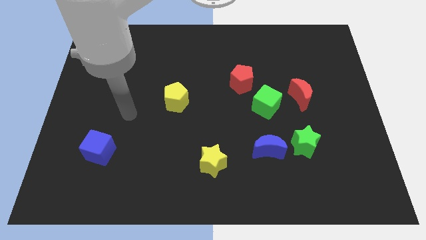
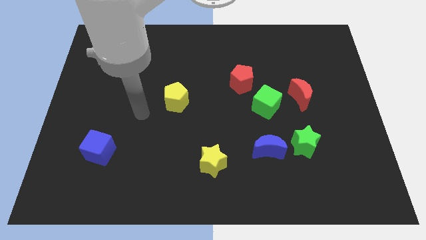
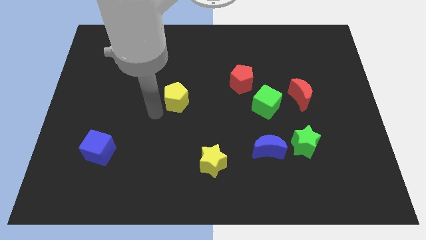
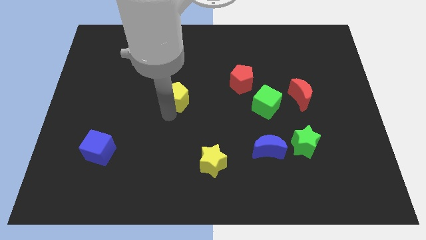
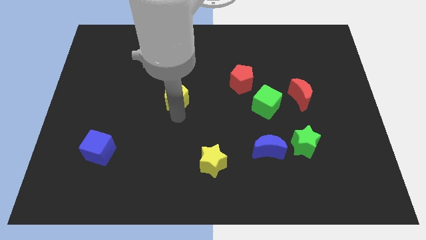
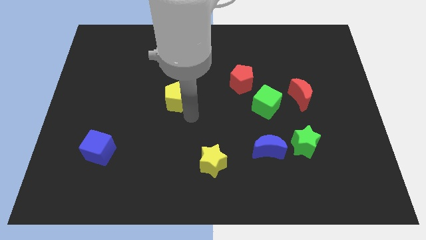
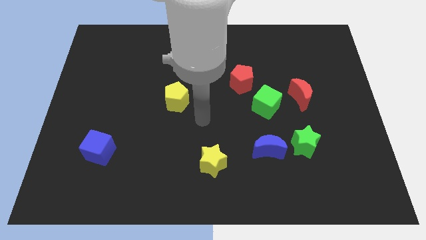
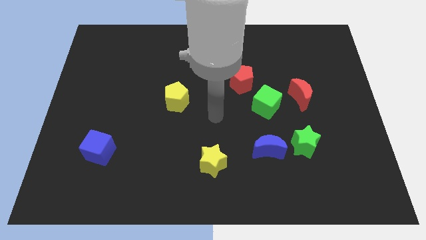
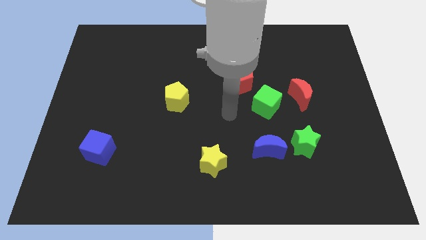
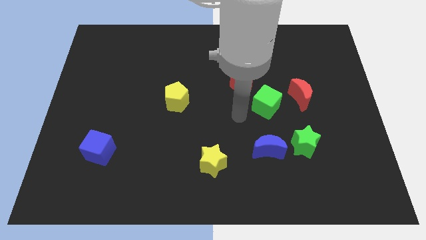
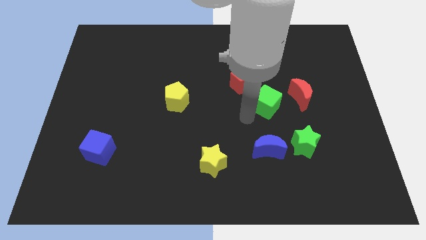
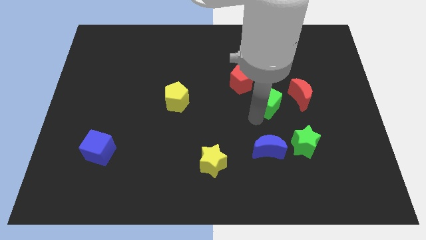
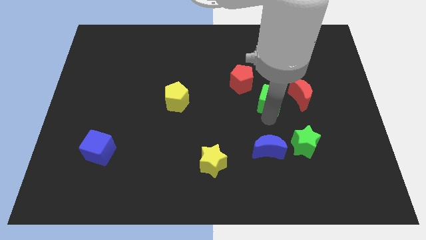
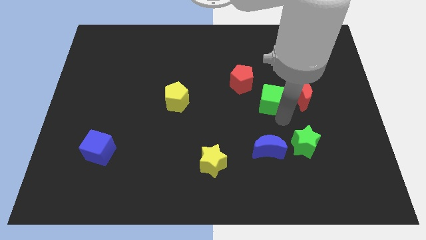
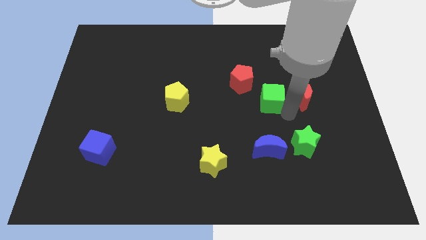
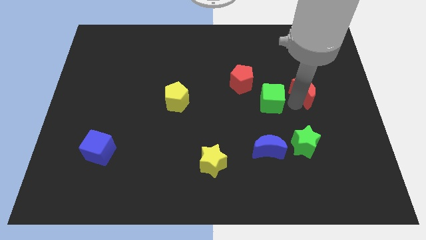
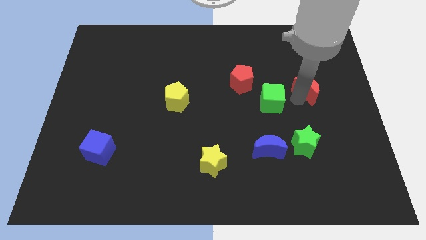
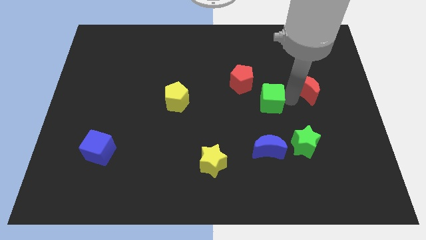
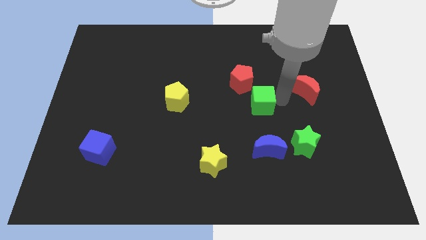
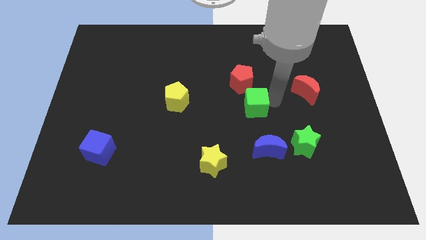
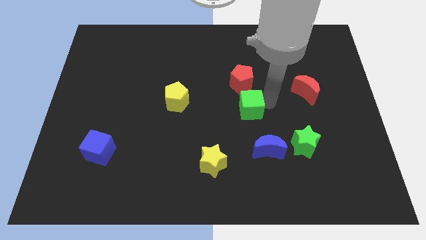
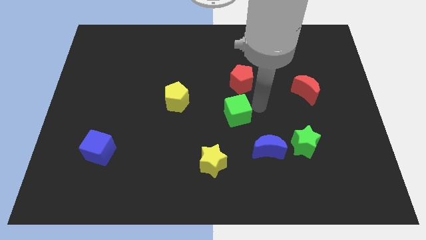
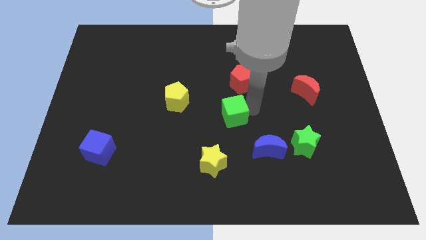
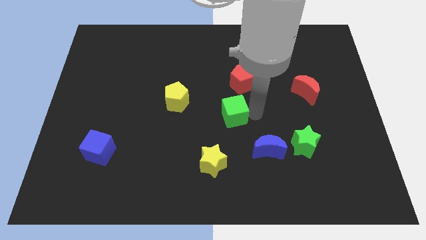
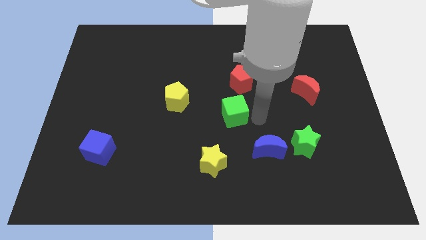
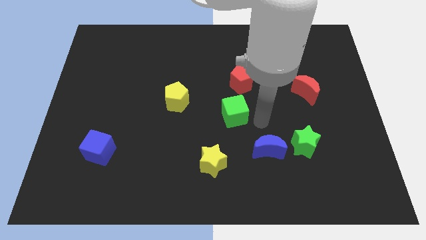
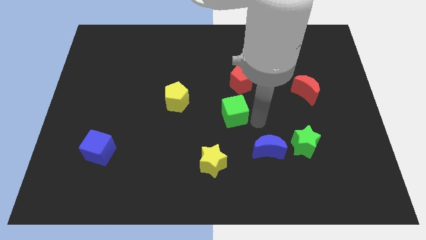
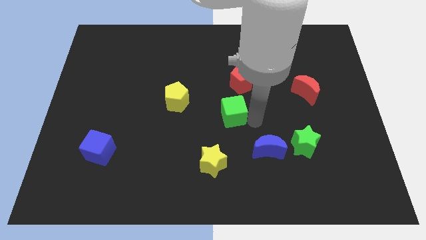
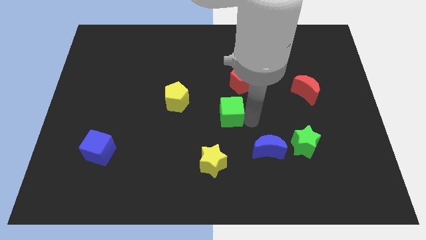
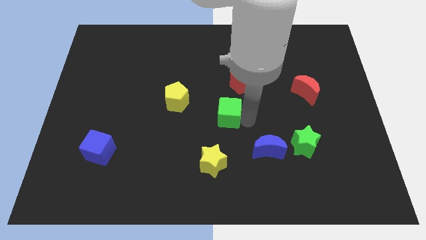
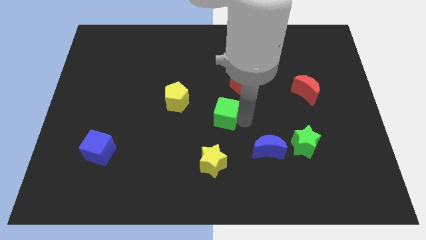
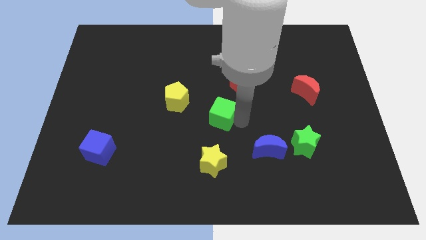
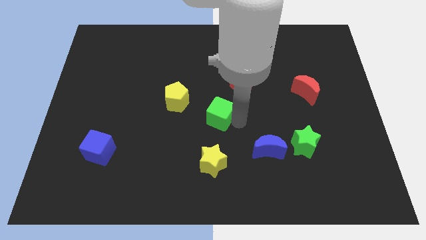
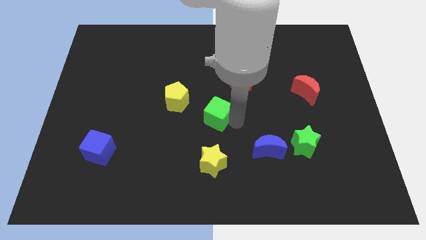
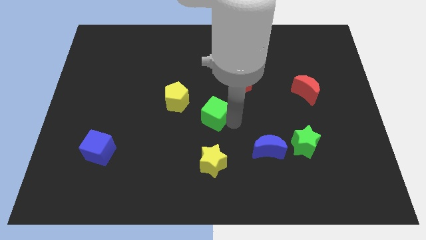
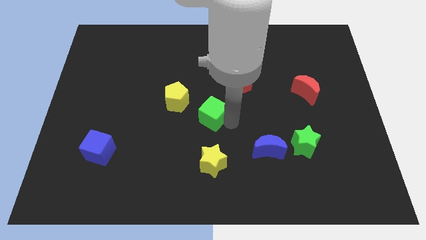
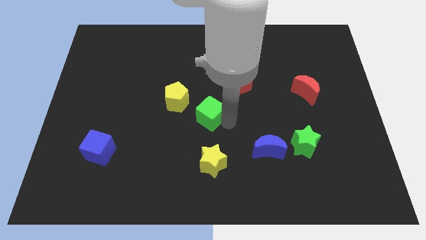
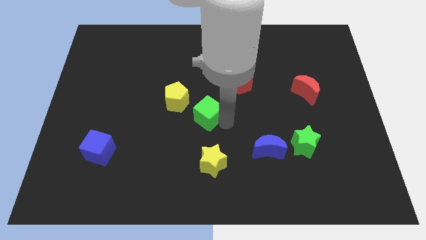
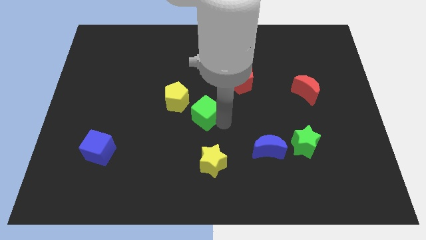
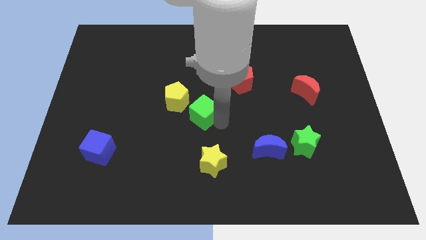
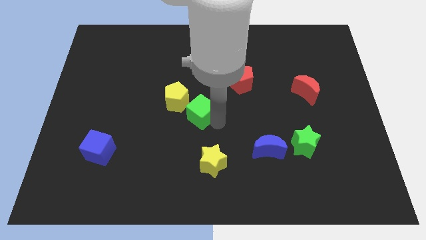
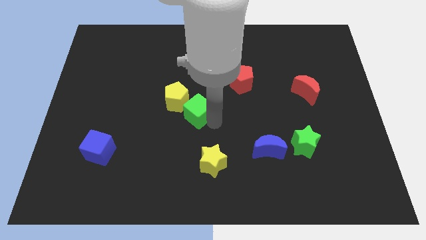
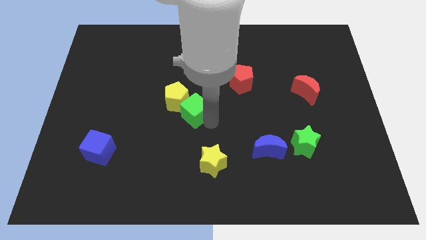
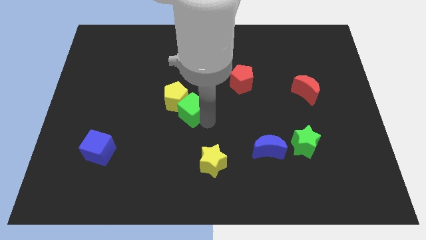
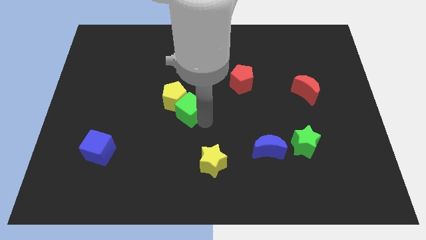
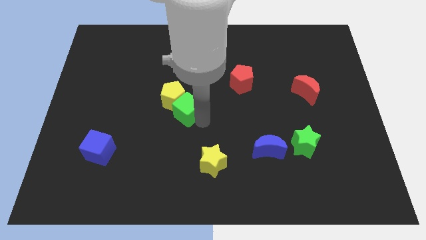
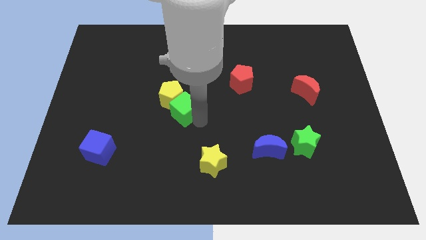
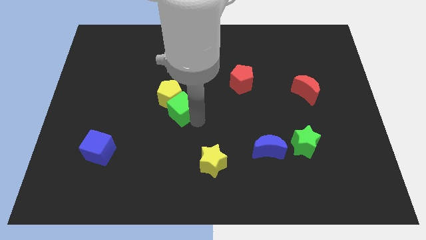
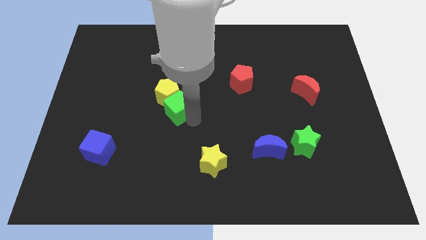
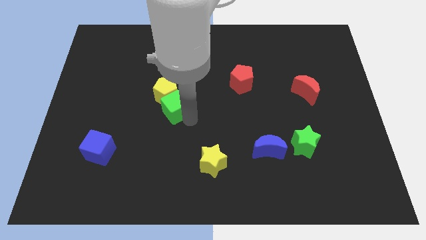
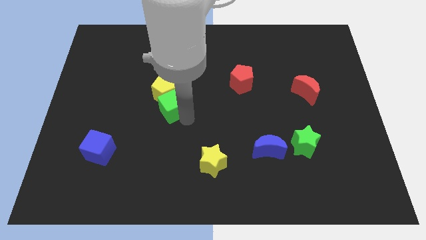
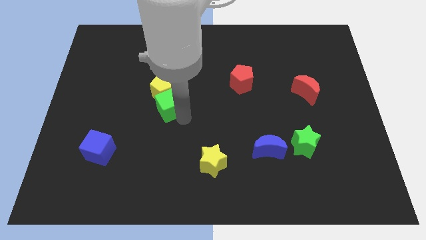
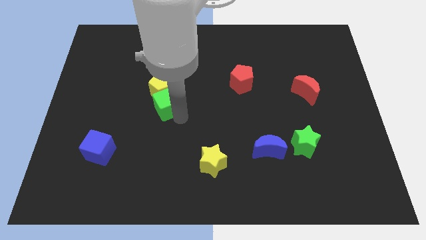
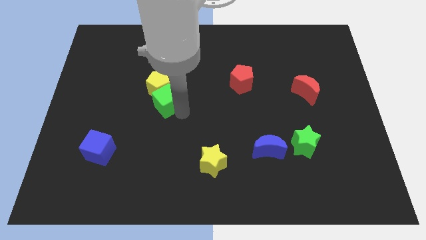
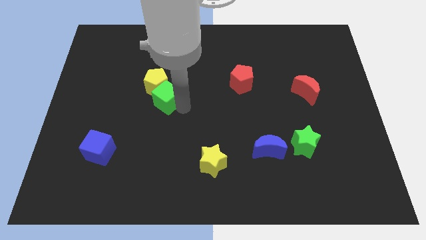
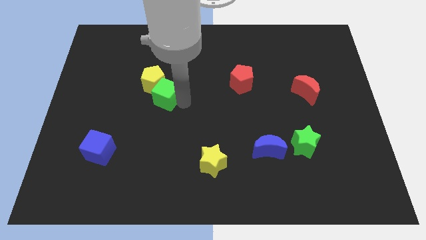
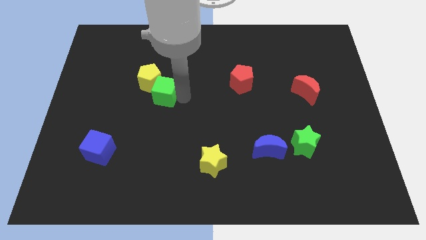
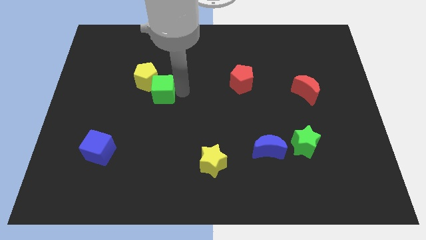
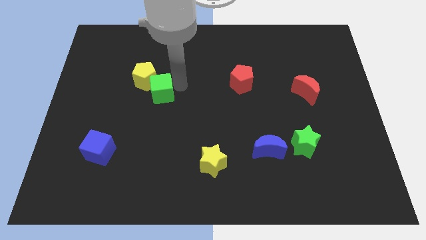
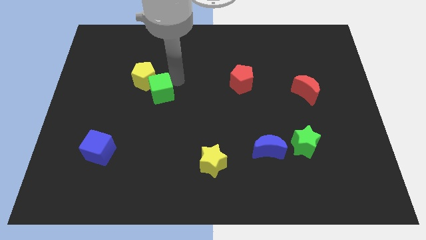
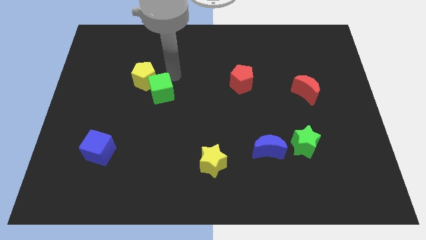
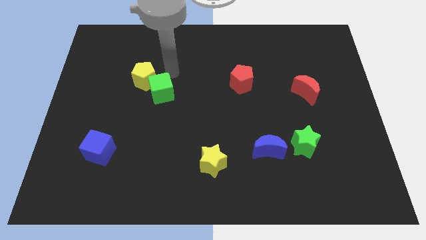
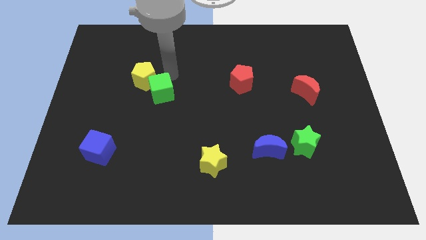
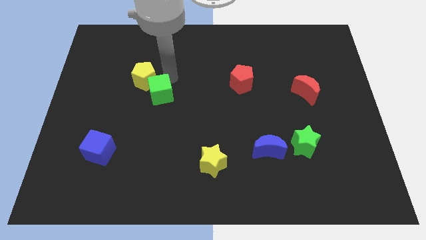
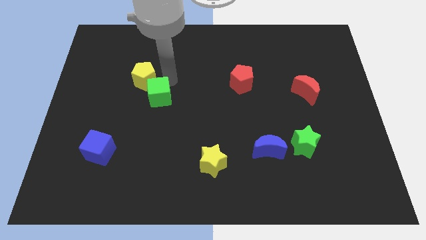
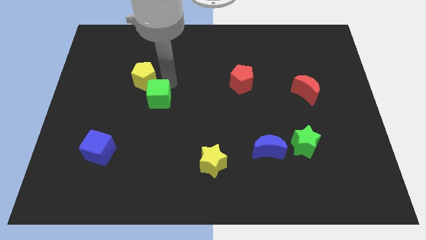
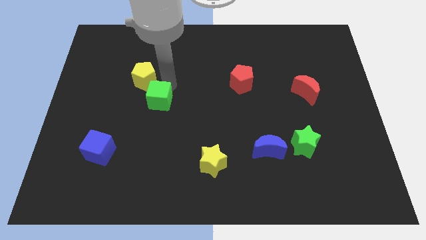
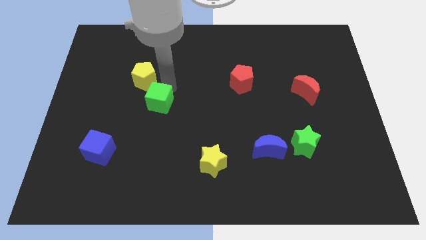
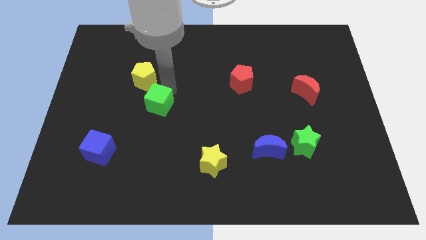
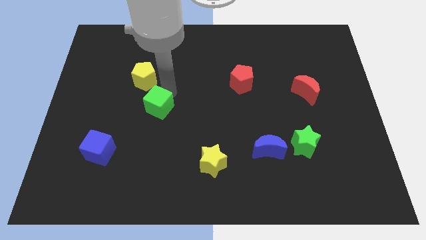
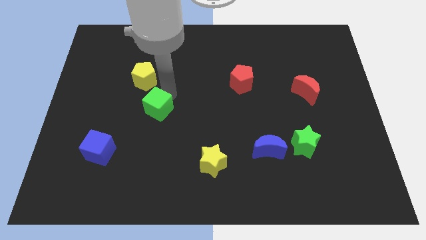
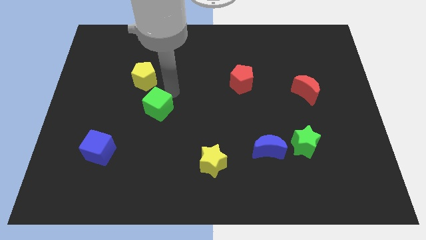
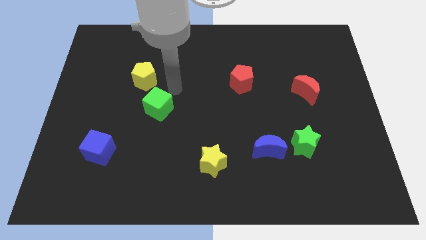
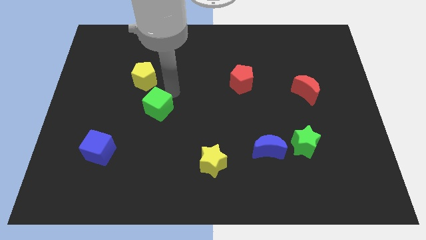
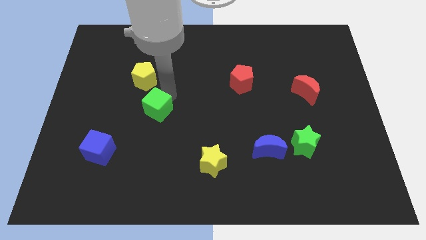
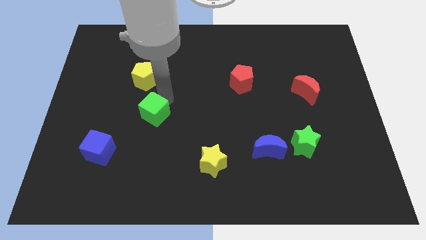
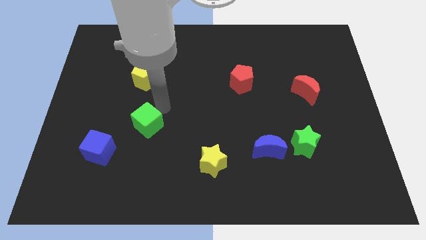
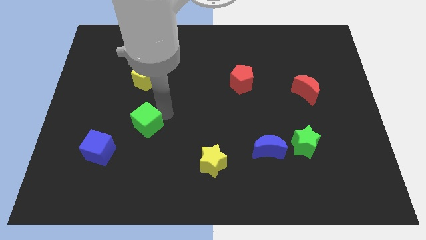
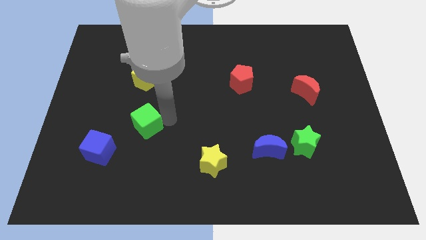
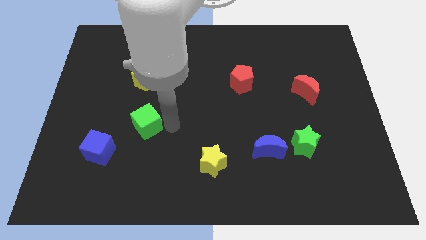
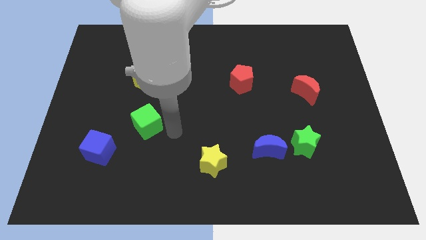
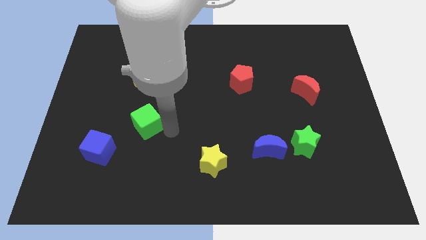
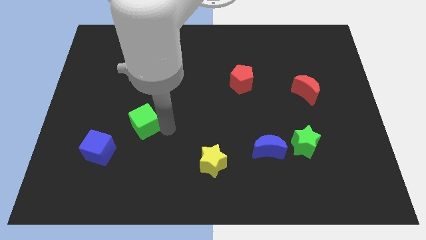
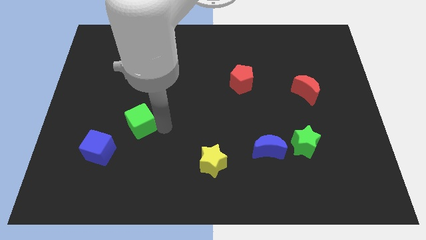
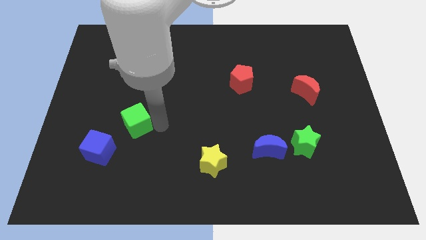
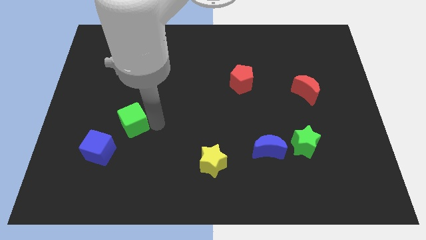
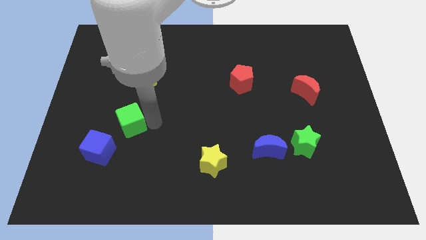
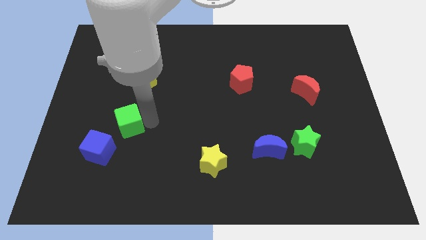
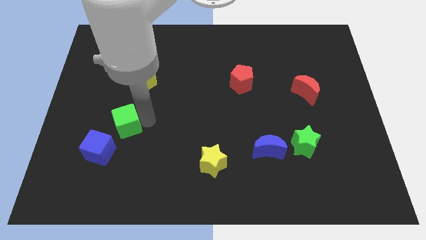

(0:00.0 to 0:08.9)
put the green cube to the top of the blue cube
